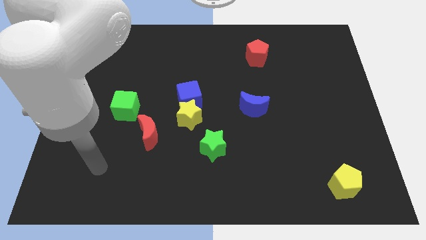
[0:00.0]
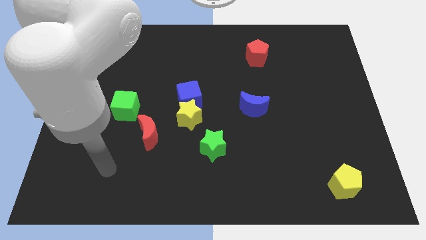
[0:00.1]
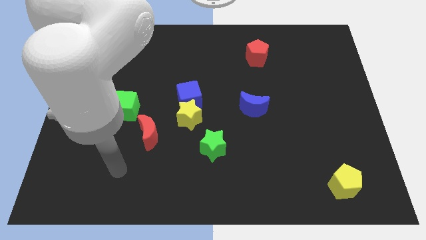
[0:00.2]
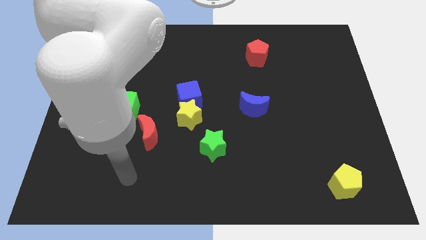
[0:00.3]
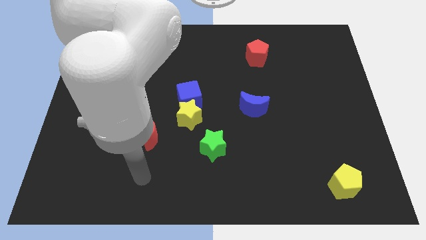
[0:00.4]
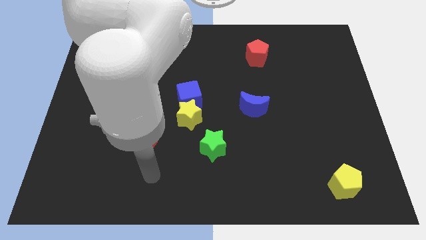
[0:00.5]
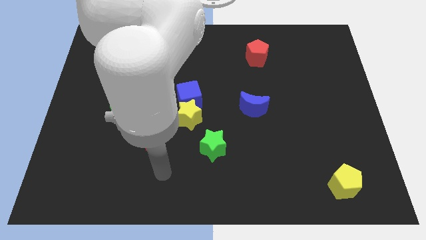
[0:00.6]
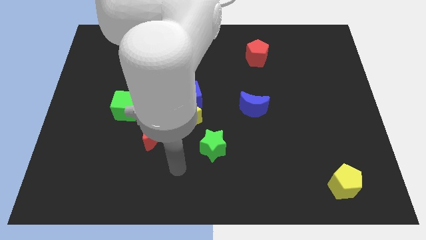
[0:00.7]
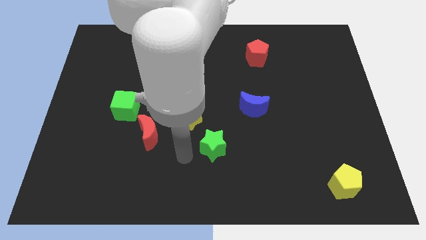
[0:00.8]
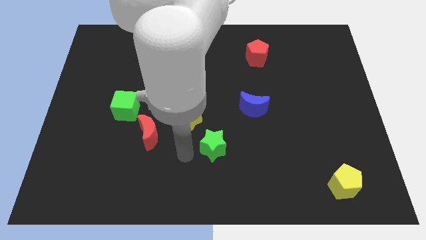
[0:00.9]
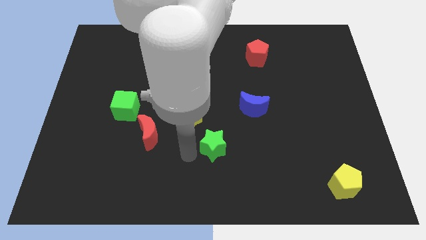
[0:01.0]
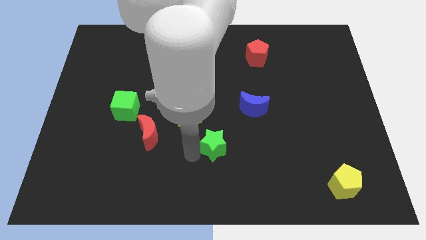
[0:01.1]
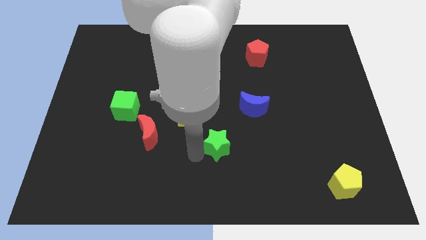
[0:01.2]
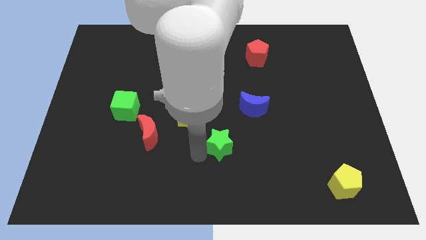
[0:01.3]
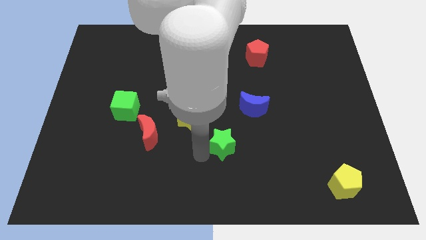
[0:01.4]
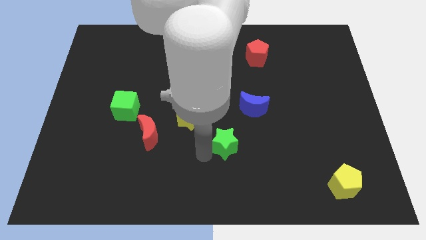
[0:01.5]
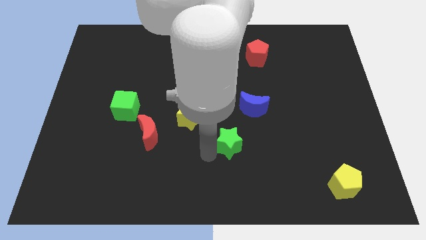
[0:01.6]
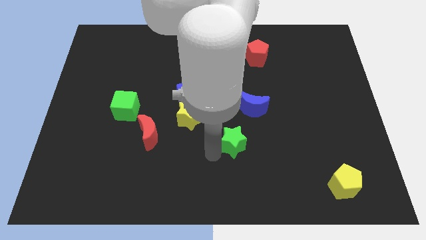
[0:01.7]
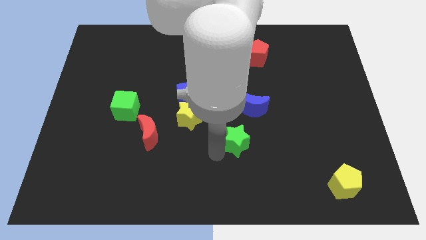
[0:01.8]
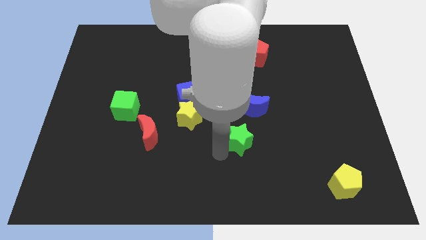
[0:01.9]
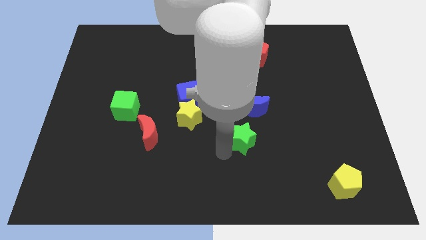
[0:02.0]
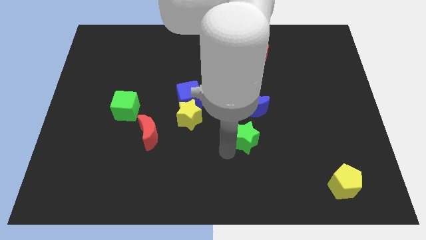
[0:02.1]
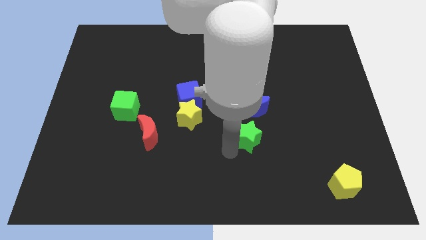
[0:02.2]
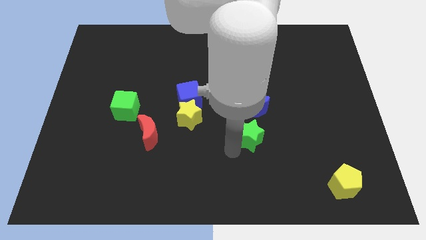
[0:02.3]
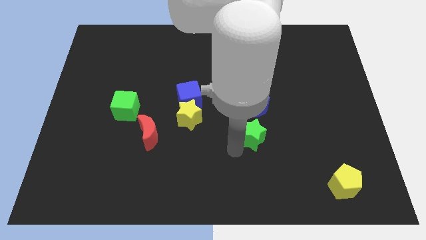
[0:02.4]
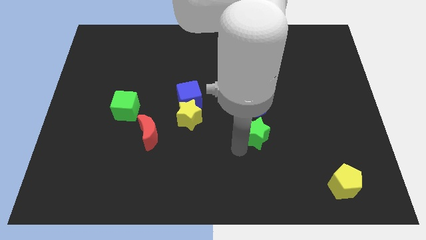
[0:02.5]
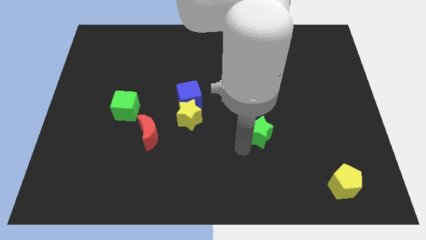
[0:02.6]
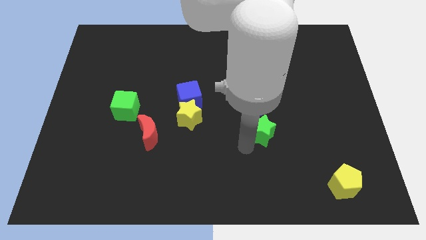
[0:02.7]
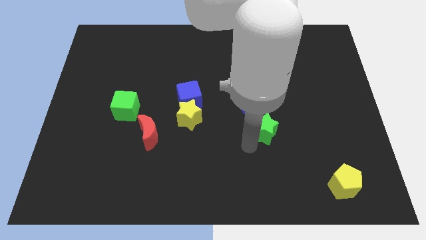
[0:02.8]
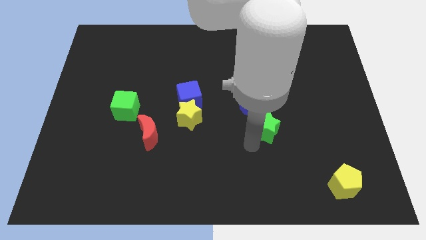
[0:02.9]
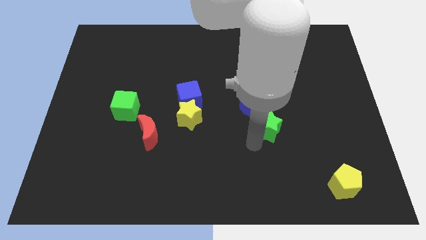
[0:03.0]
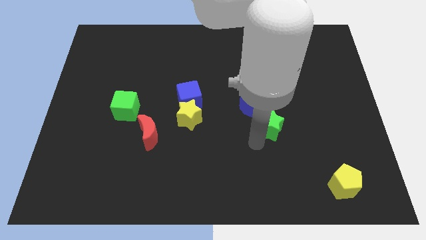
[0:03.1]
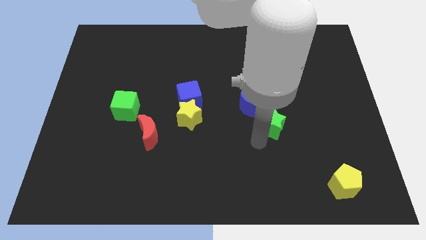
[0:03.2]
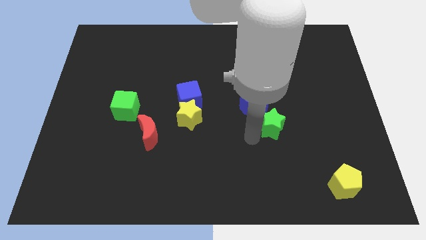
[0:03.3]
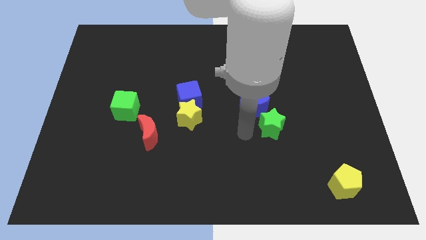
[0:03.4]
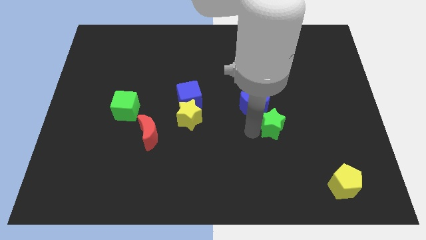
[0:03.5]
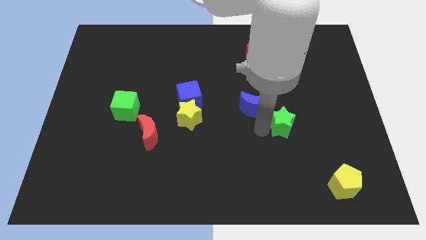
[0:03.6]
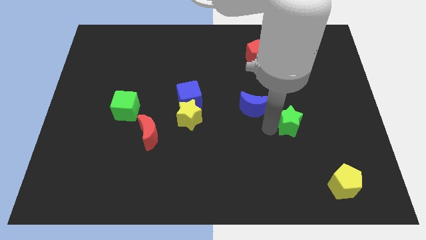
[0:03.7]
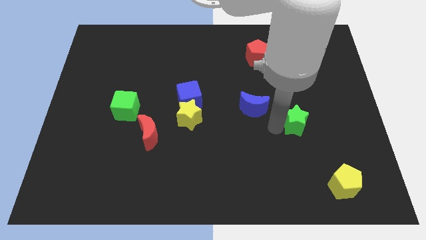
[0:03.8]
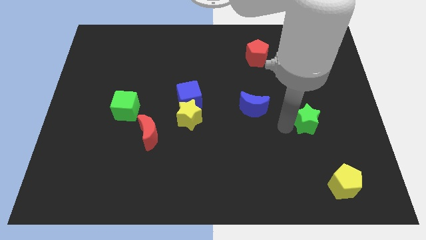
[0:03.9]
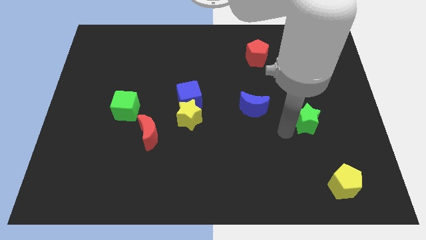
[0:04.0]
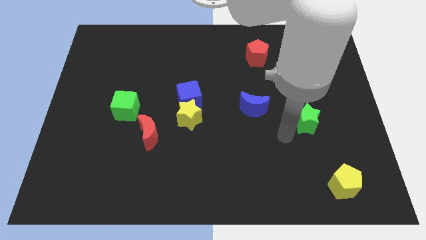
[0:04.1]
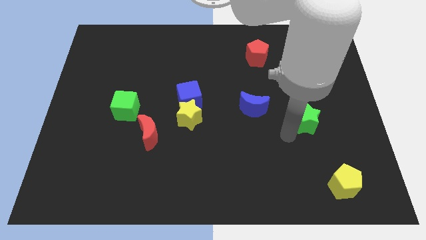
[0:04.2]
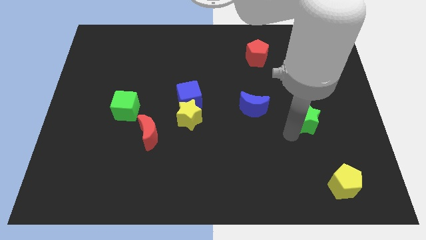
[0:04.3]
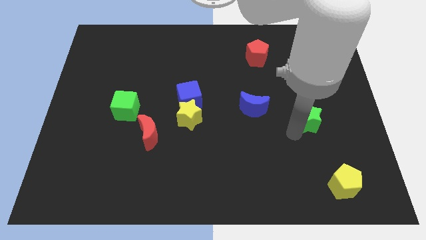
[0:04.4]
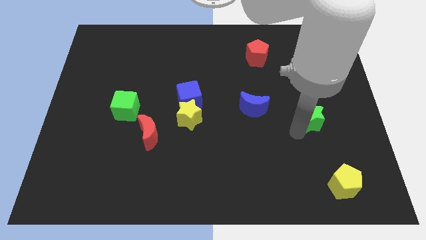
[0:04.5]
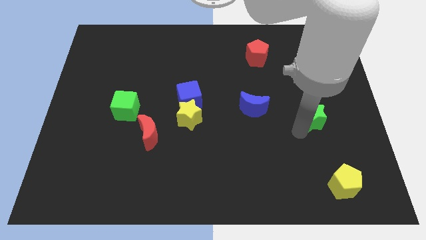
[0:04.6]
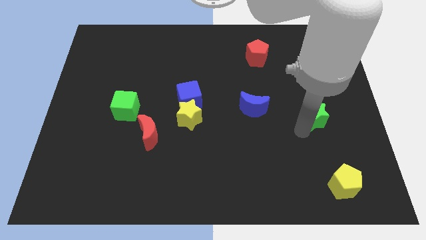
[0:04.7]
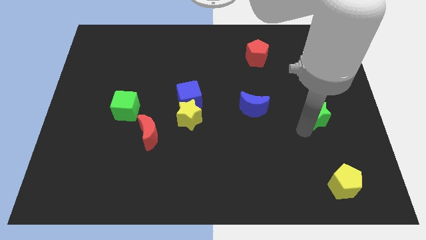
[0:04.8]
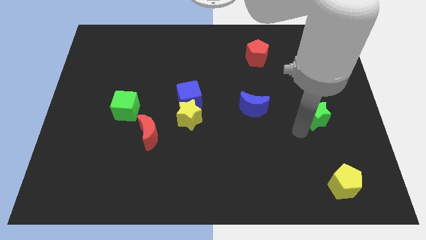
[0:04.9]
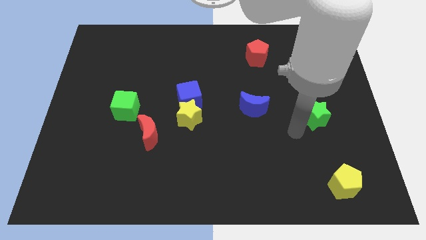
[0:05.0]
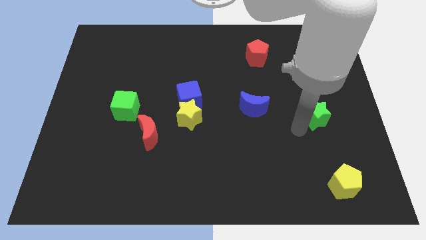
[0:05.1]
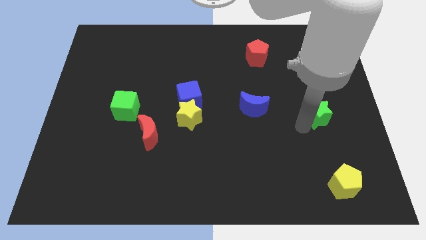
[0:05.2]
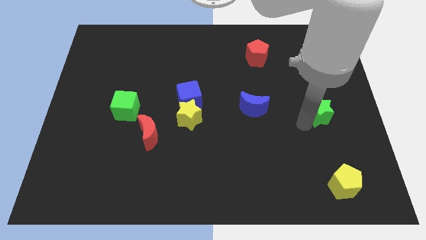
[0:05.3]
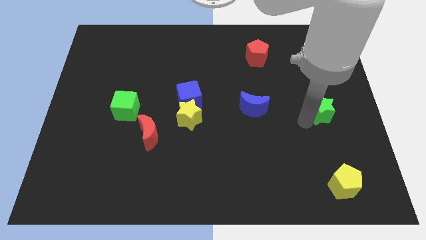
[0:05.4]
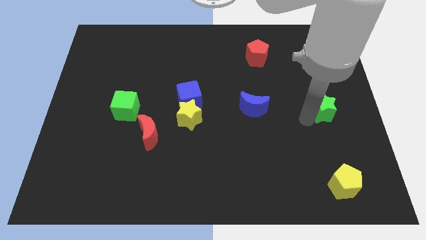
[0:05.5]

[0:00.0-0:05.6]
move the green star to the center right

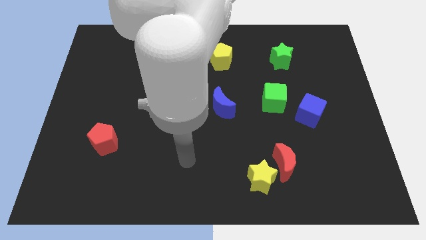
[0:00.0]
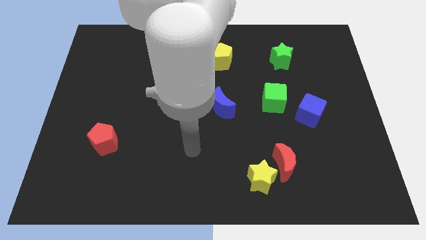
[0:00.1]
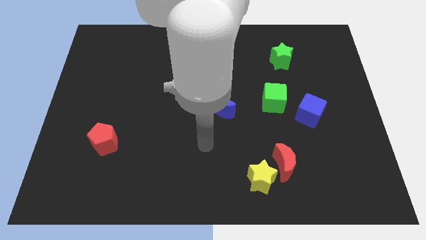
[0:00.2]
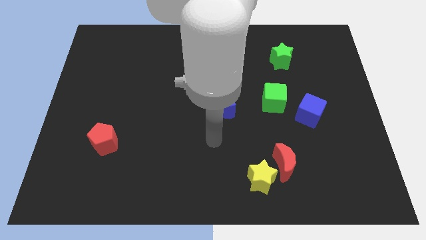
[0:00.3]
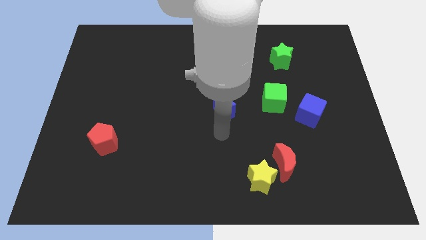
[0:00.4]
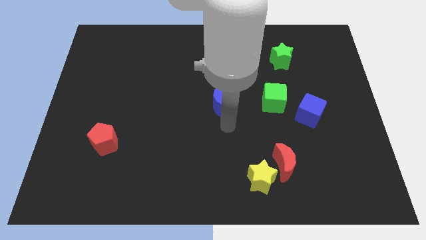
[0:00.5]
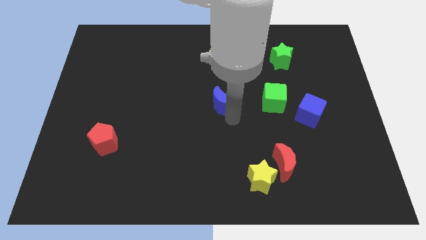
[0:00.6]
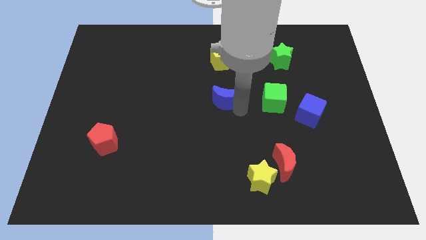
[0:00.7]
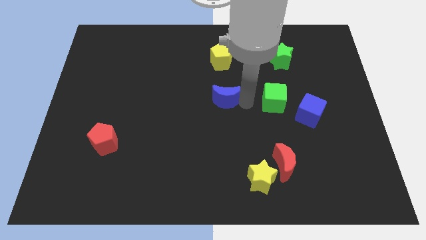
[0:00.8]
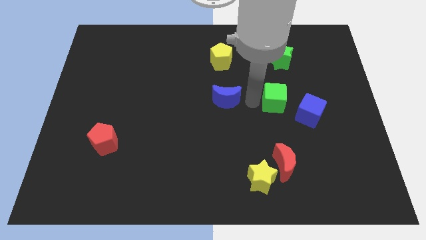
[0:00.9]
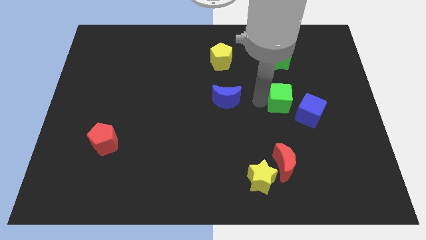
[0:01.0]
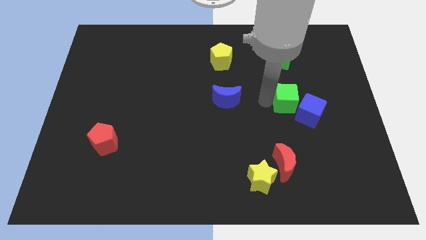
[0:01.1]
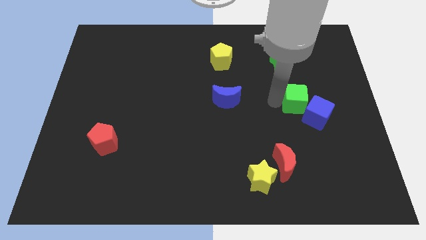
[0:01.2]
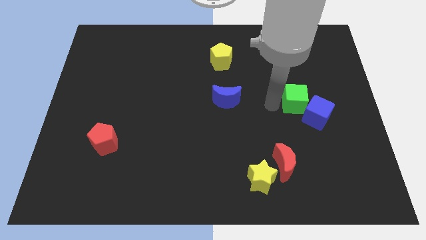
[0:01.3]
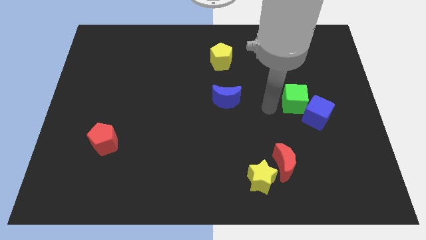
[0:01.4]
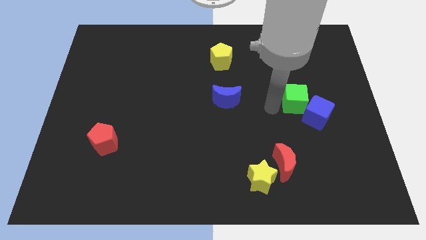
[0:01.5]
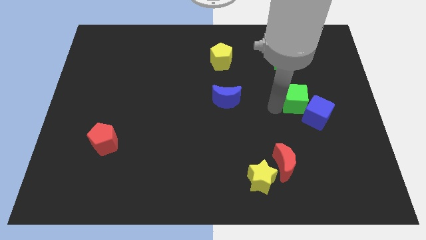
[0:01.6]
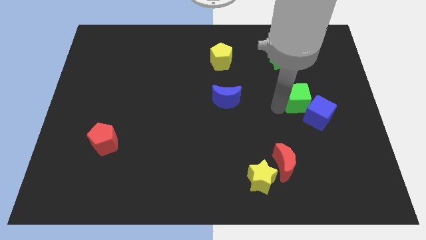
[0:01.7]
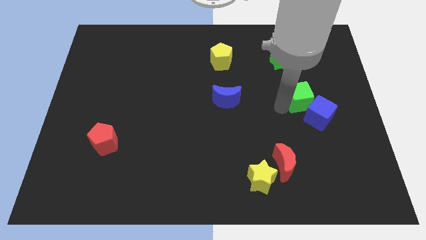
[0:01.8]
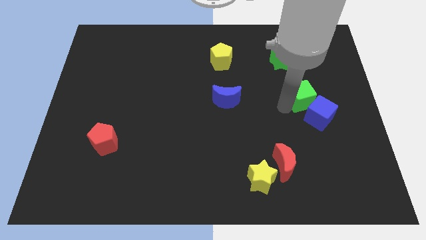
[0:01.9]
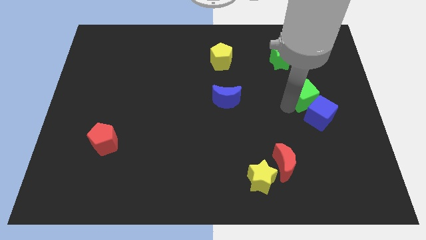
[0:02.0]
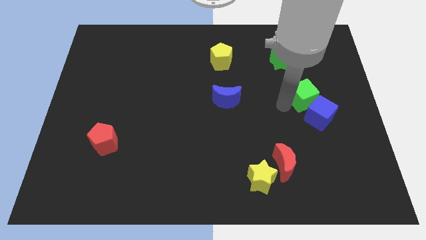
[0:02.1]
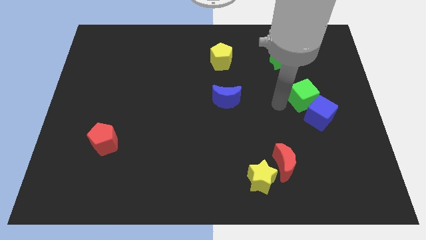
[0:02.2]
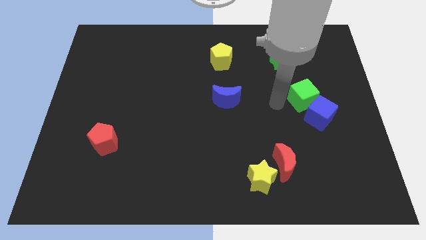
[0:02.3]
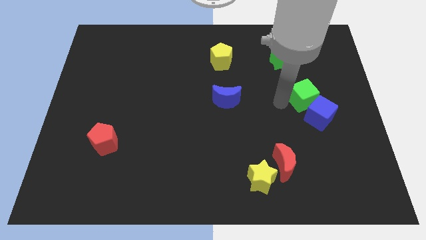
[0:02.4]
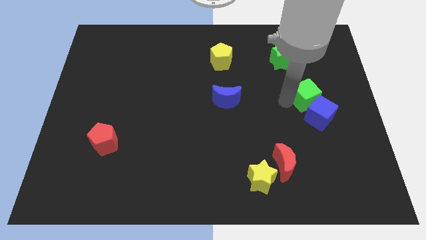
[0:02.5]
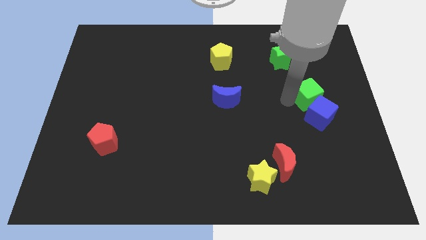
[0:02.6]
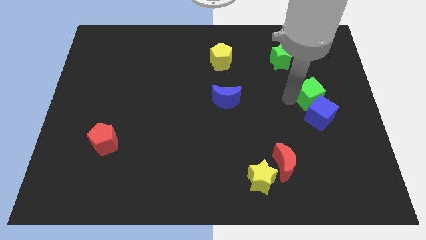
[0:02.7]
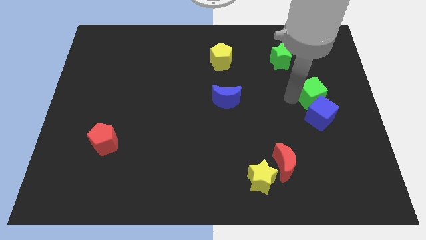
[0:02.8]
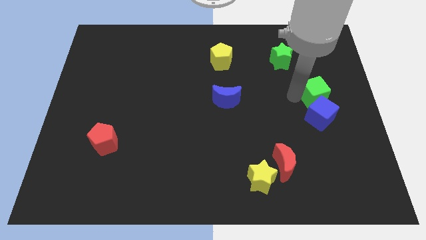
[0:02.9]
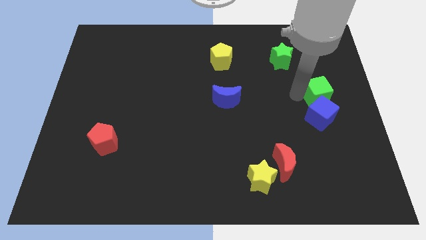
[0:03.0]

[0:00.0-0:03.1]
move the green cube to the right side of the board
